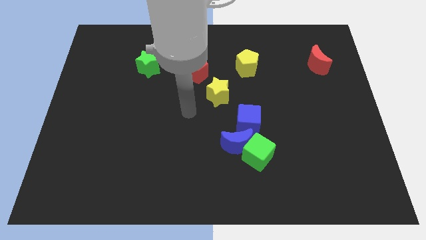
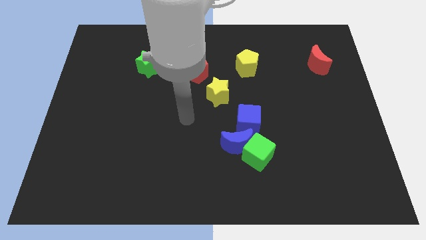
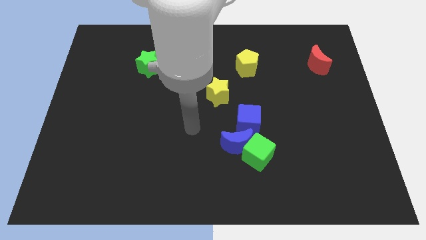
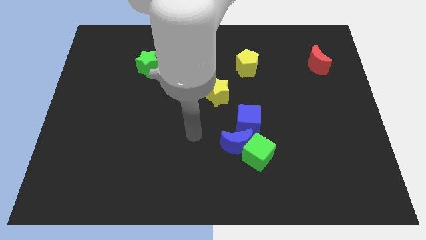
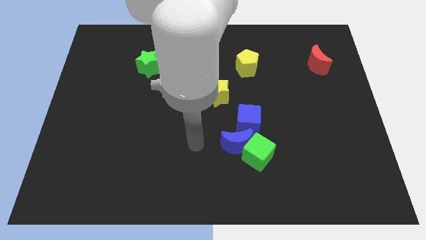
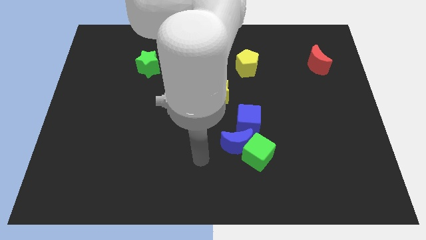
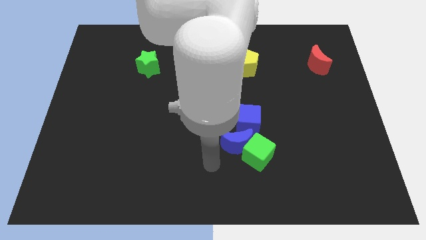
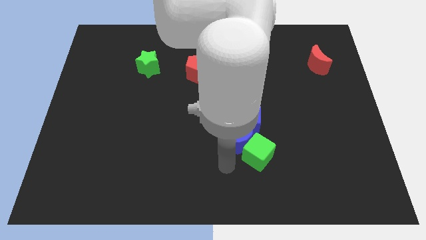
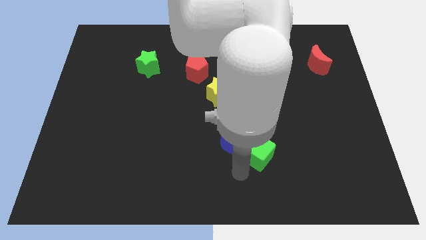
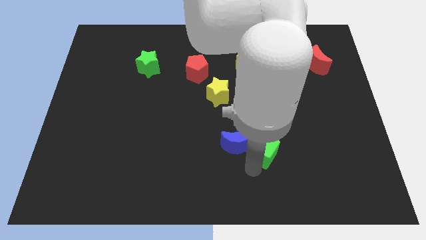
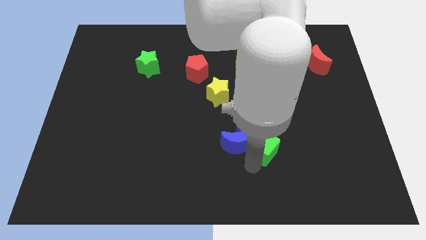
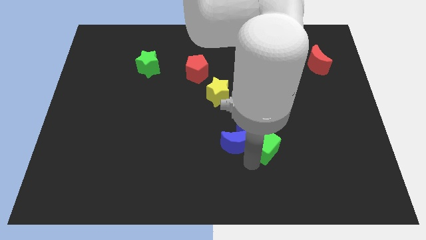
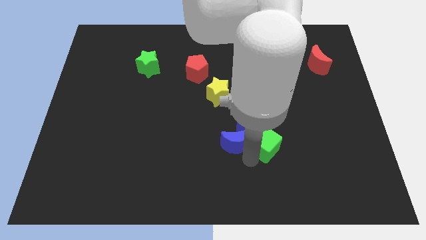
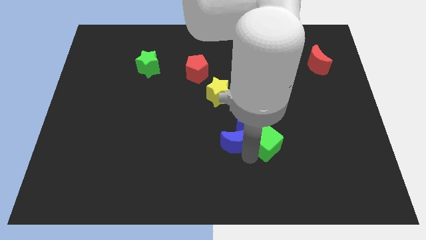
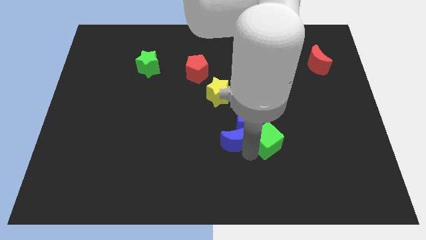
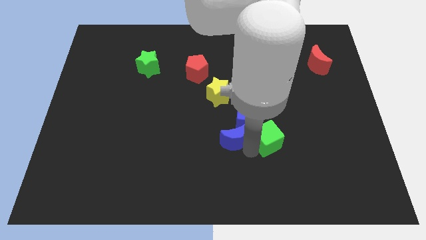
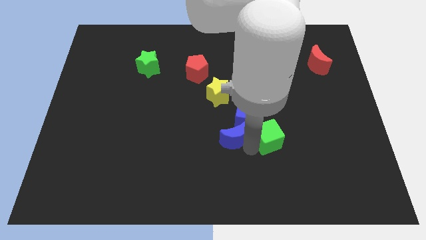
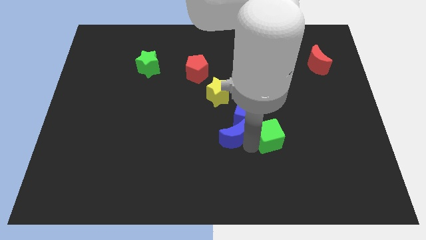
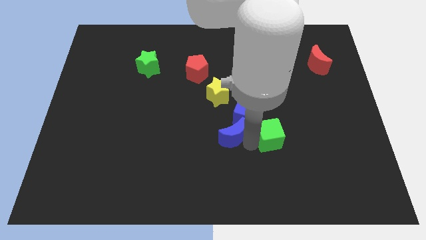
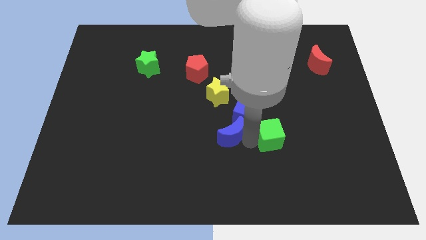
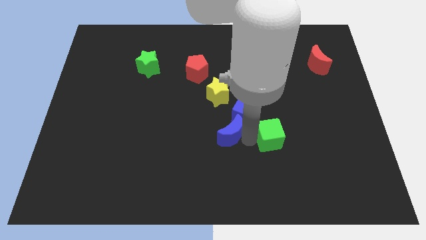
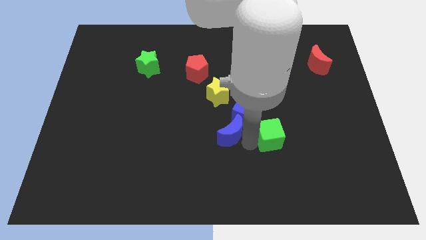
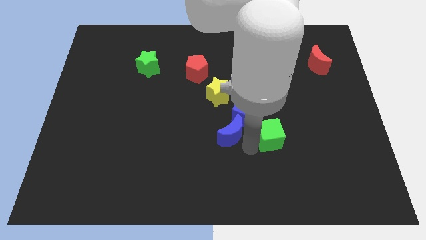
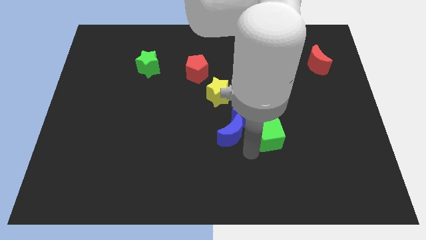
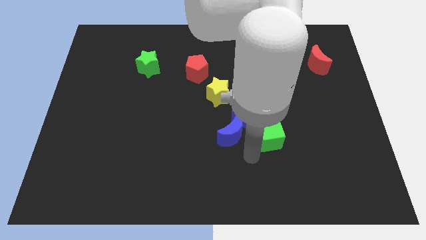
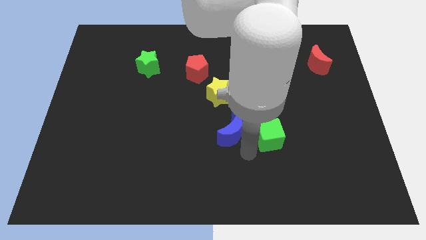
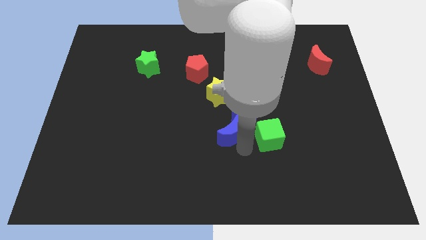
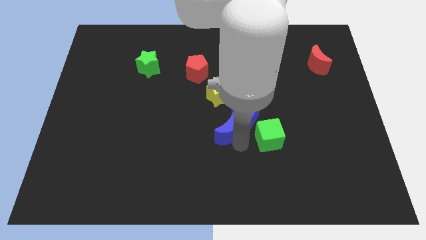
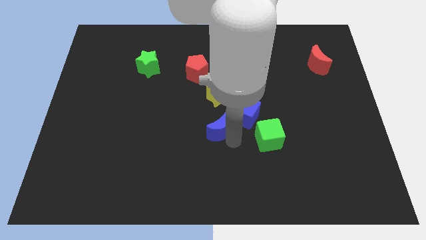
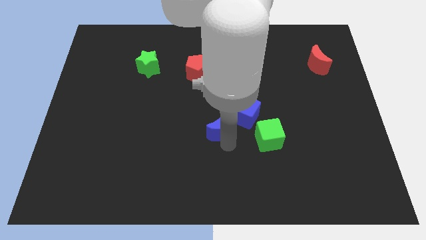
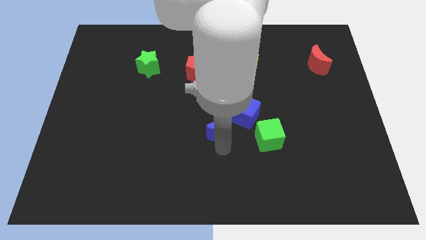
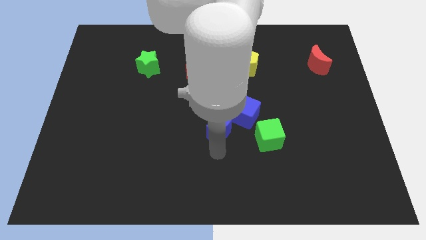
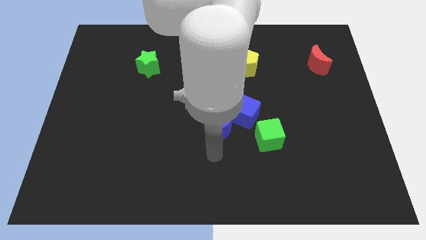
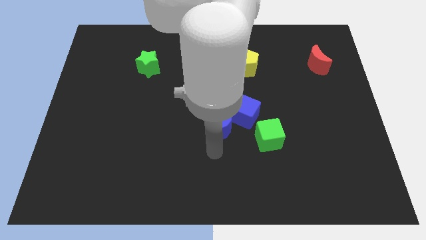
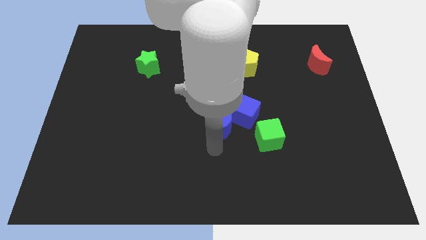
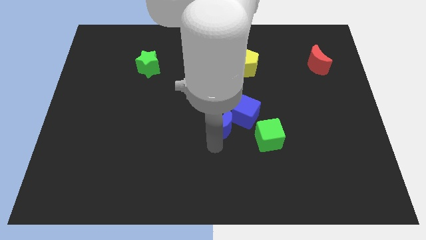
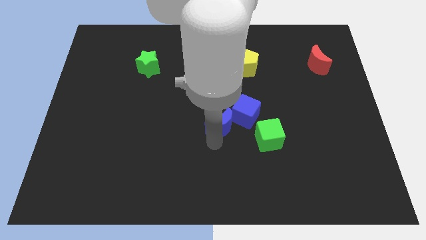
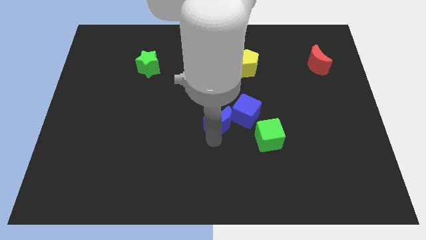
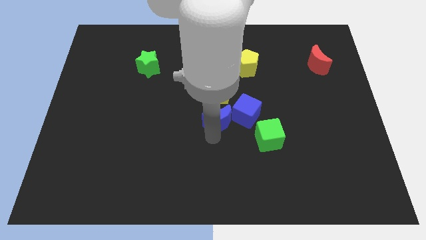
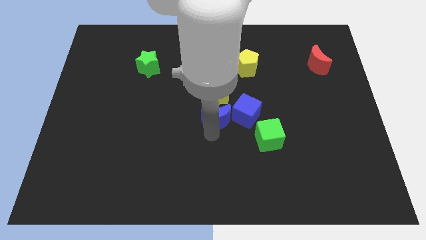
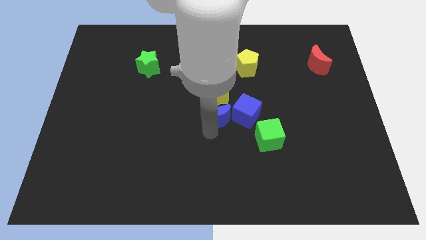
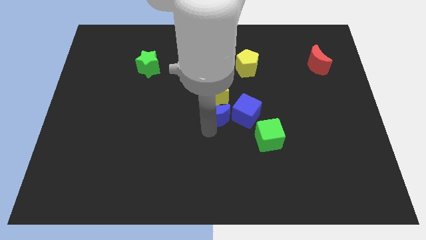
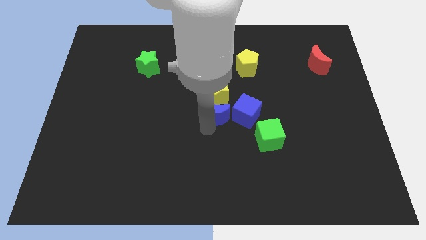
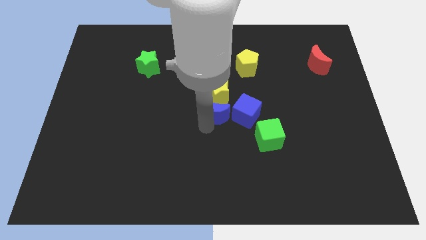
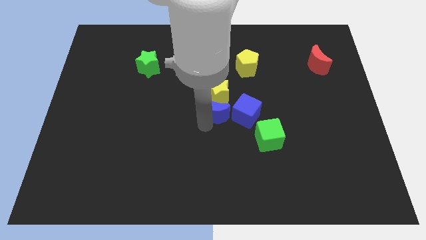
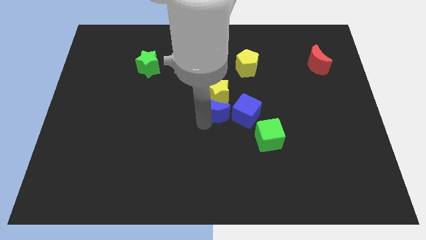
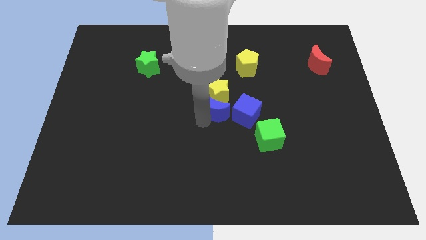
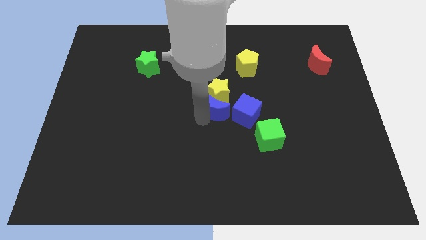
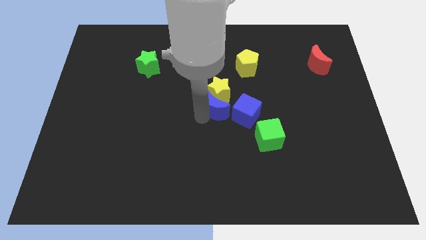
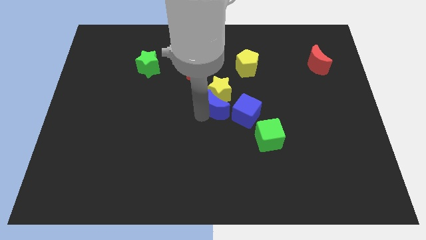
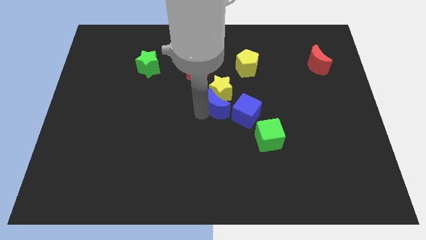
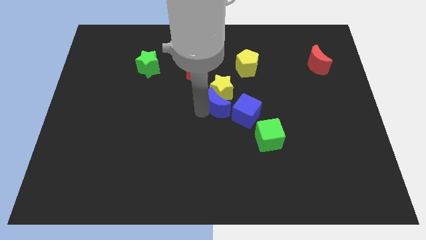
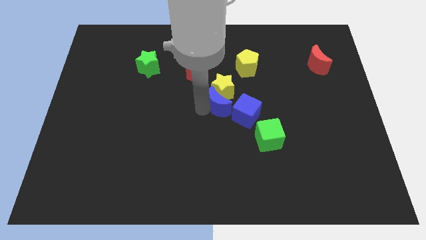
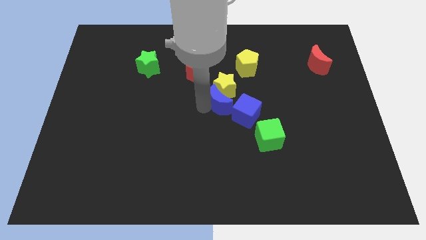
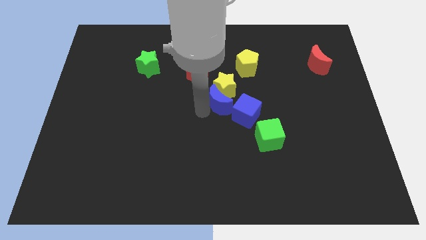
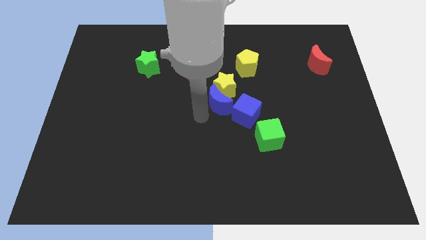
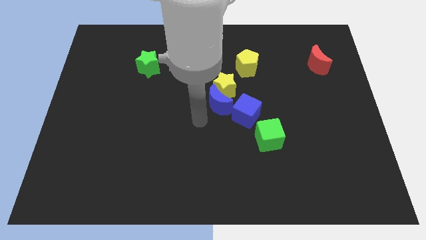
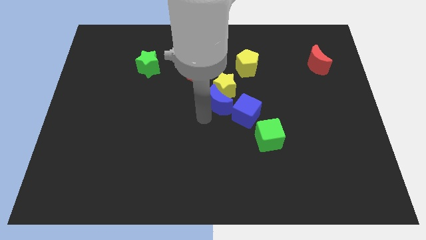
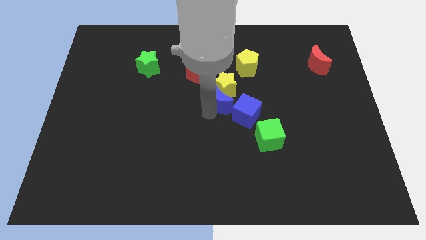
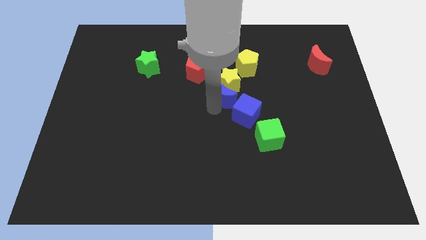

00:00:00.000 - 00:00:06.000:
push the blue moon to the bottom left of the yellow pentagon
